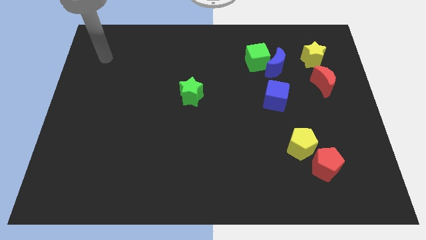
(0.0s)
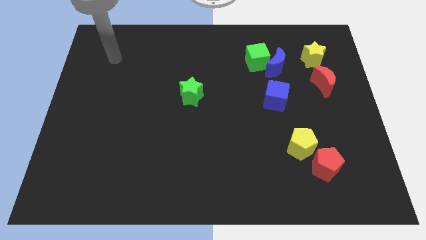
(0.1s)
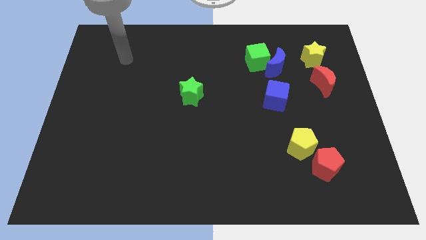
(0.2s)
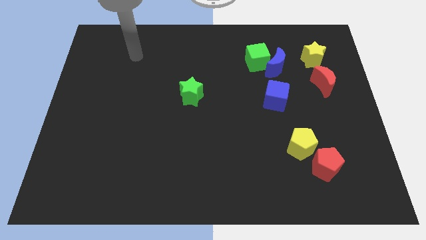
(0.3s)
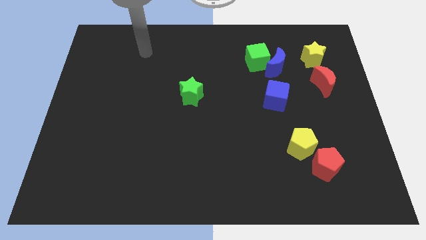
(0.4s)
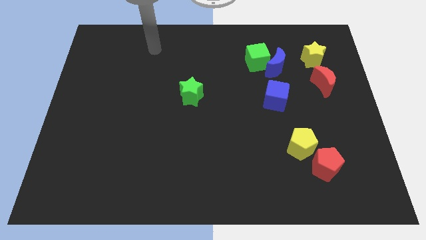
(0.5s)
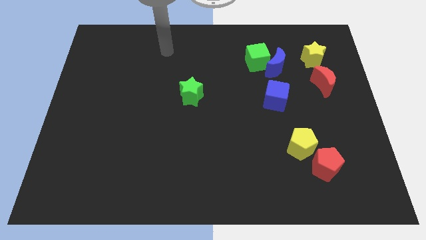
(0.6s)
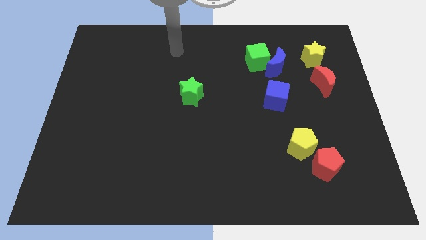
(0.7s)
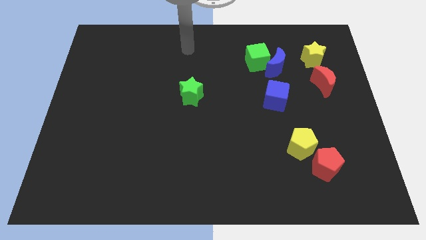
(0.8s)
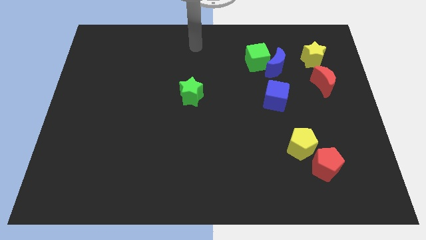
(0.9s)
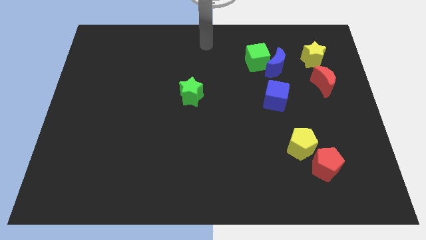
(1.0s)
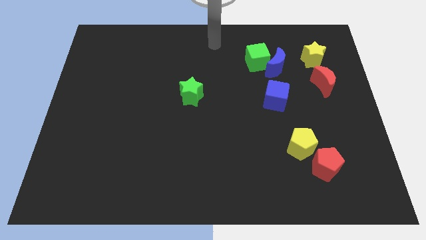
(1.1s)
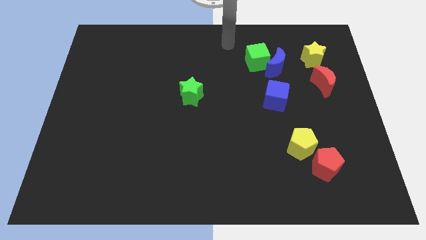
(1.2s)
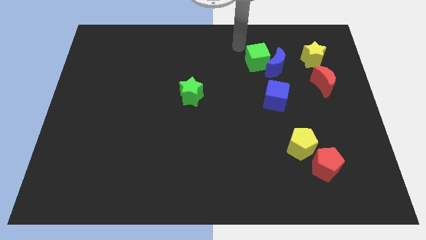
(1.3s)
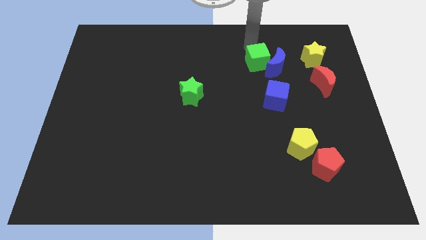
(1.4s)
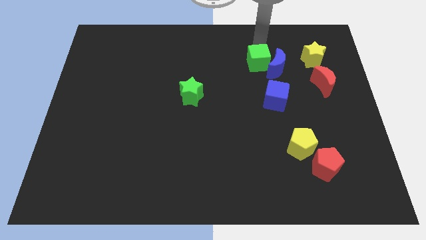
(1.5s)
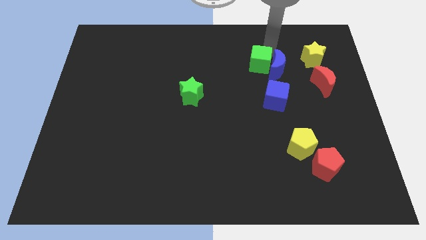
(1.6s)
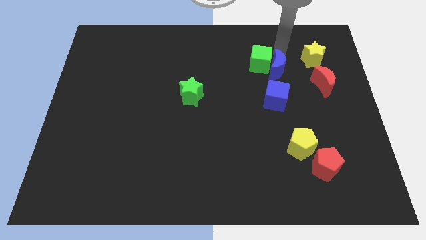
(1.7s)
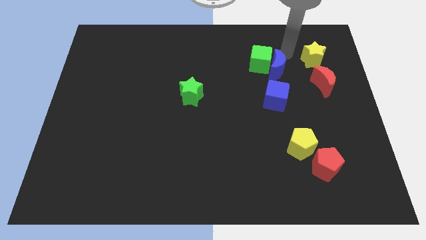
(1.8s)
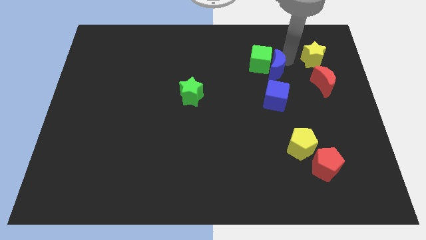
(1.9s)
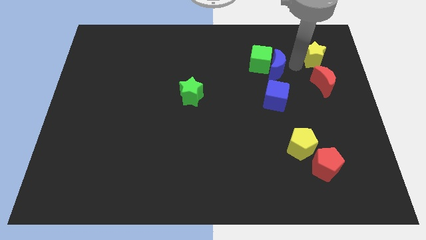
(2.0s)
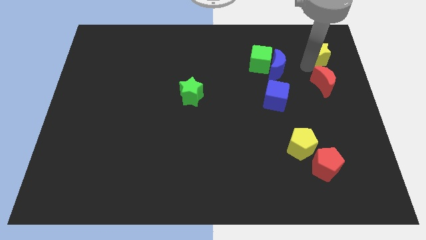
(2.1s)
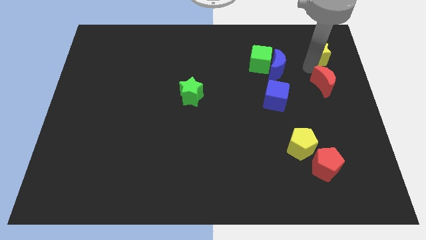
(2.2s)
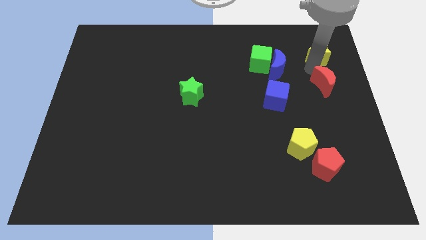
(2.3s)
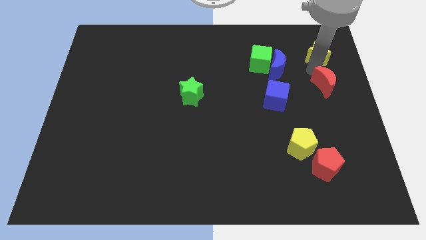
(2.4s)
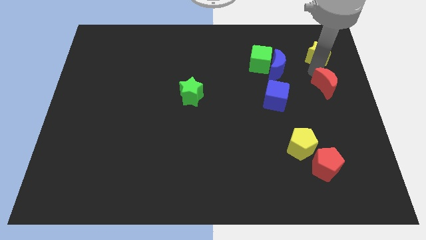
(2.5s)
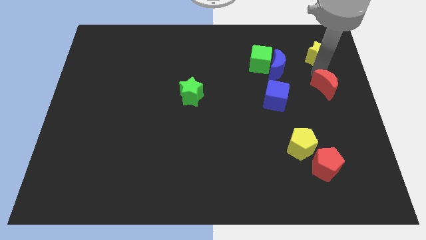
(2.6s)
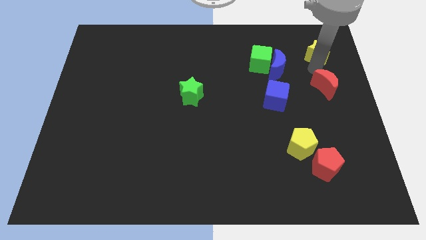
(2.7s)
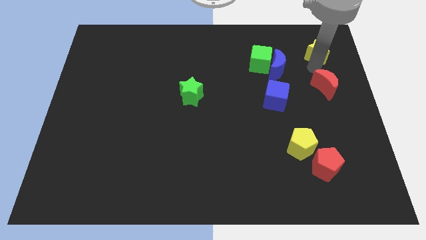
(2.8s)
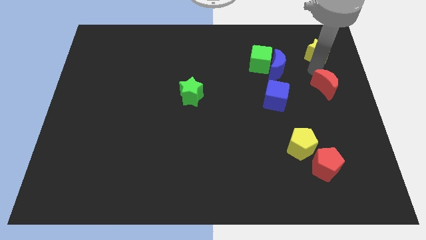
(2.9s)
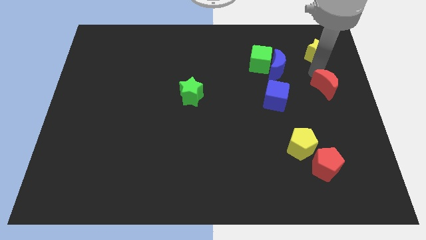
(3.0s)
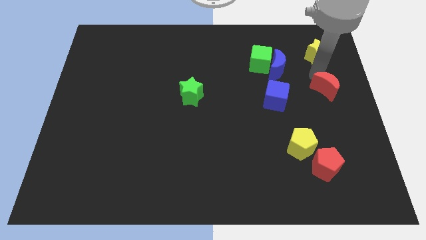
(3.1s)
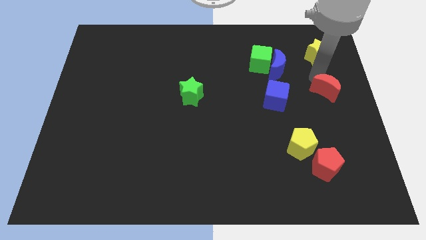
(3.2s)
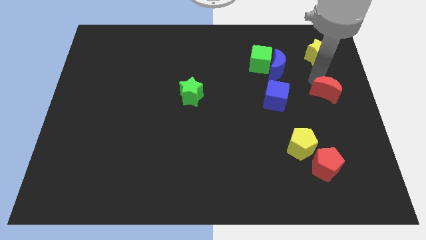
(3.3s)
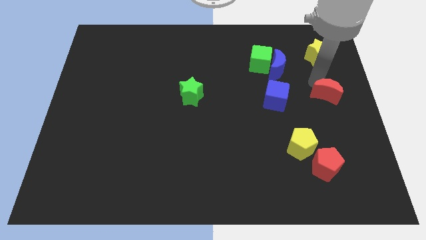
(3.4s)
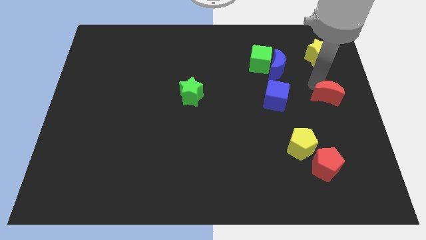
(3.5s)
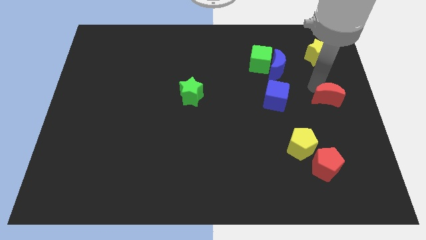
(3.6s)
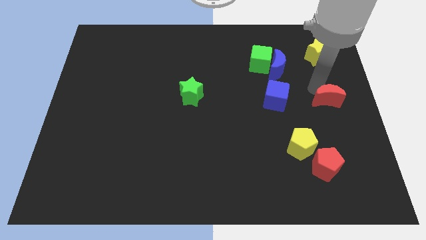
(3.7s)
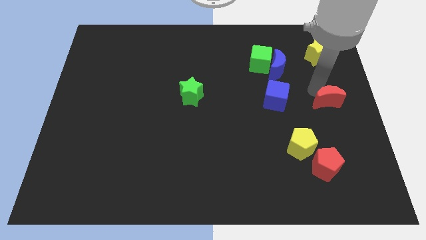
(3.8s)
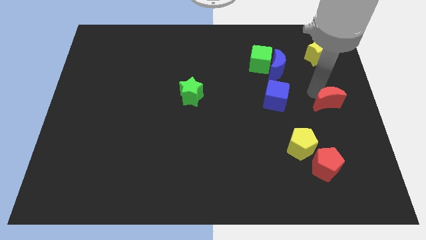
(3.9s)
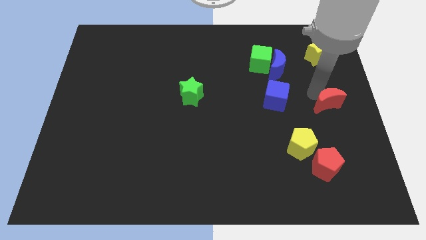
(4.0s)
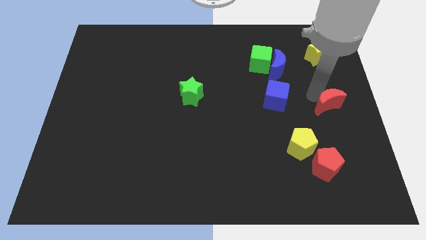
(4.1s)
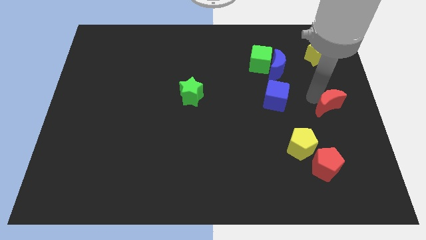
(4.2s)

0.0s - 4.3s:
slightly move the red moon down

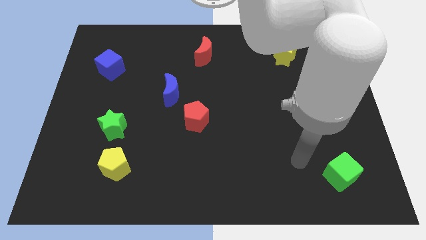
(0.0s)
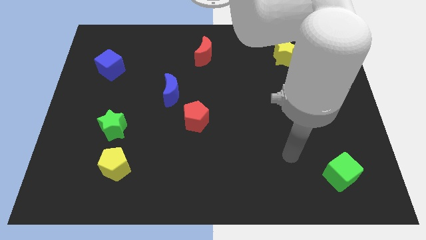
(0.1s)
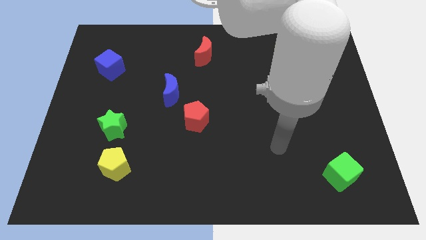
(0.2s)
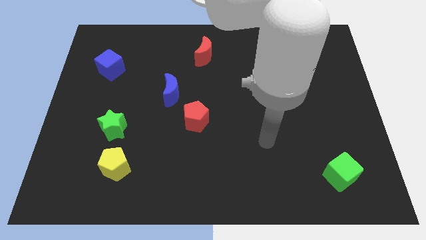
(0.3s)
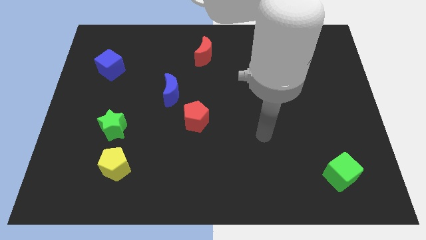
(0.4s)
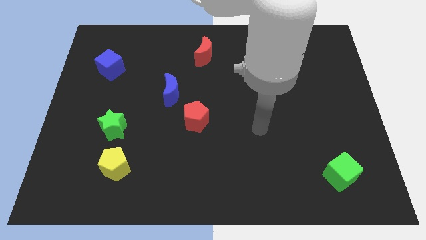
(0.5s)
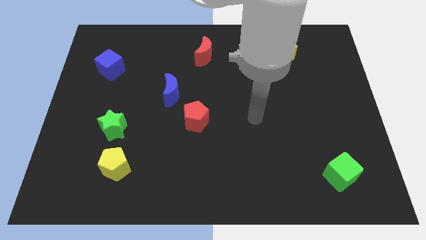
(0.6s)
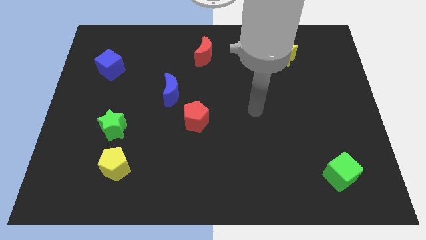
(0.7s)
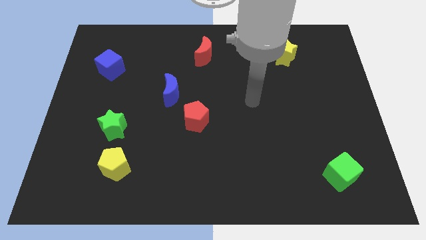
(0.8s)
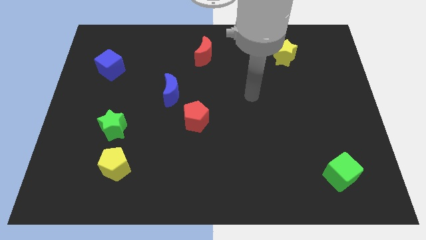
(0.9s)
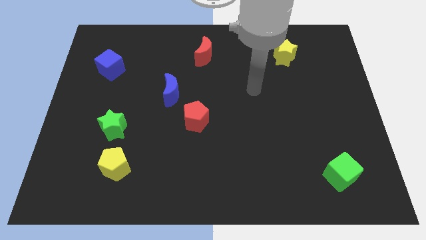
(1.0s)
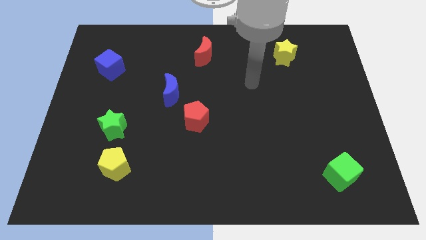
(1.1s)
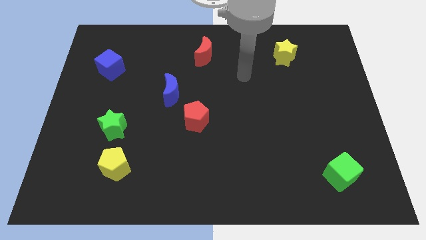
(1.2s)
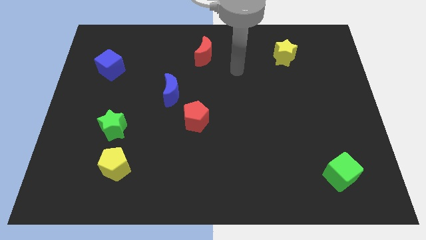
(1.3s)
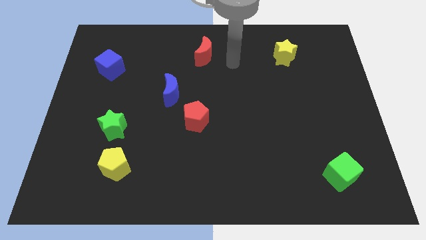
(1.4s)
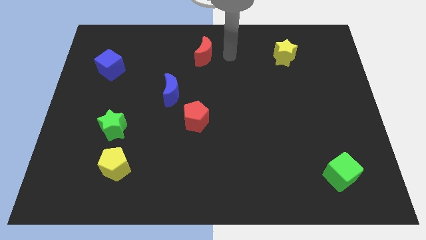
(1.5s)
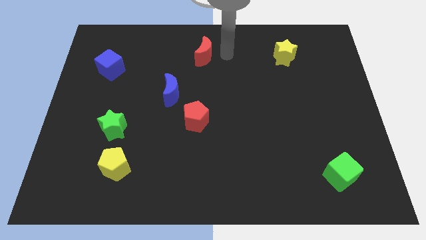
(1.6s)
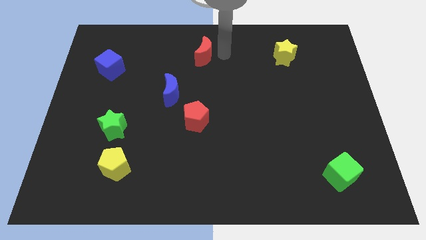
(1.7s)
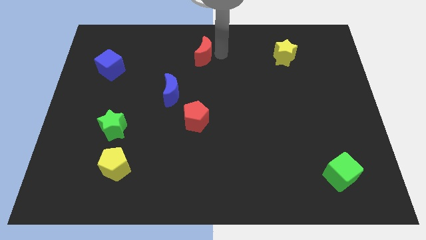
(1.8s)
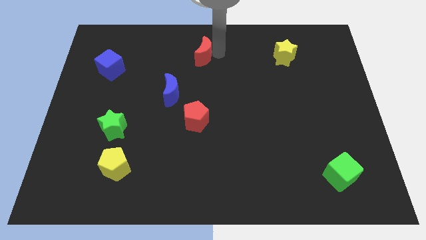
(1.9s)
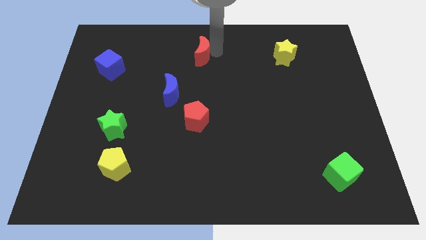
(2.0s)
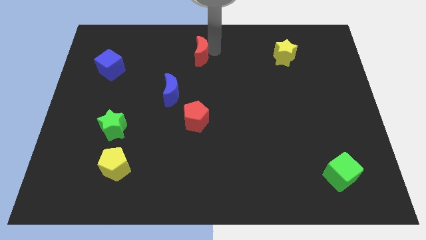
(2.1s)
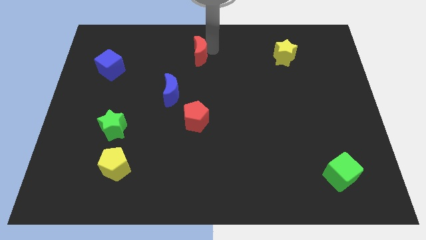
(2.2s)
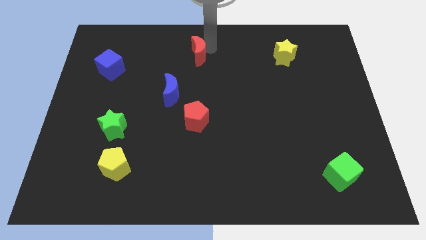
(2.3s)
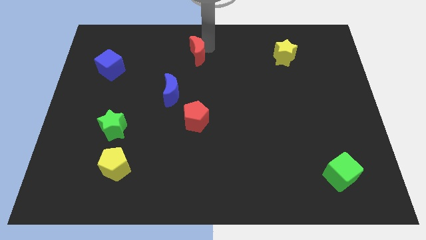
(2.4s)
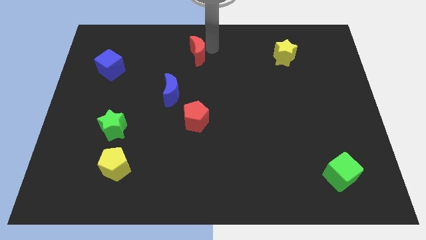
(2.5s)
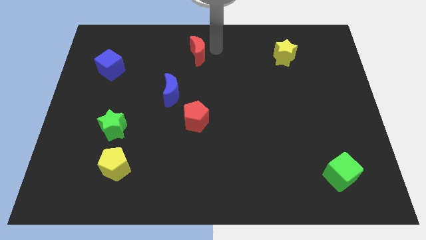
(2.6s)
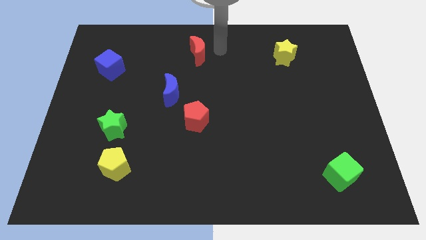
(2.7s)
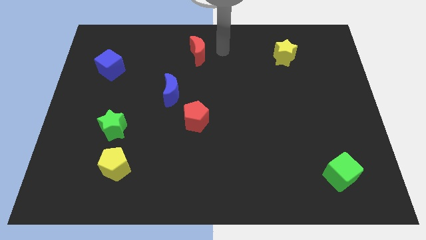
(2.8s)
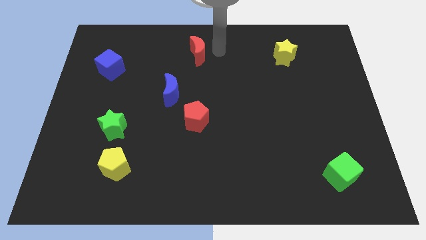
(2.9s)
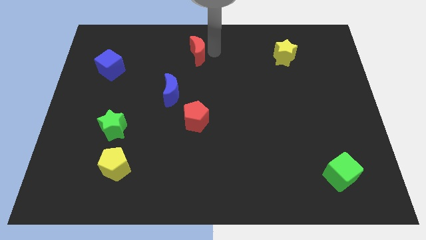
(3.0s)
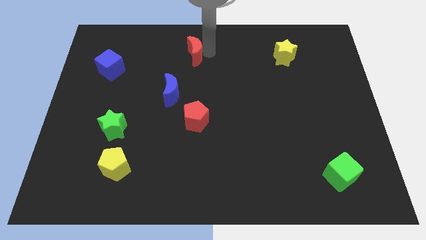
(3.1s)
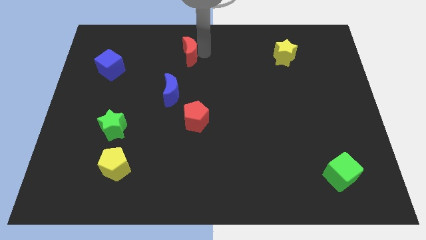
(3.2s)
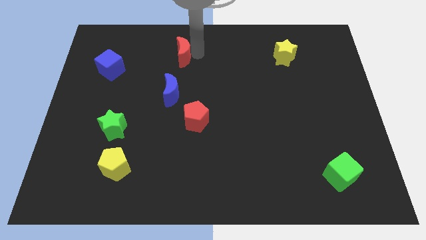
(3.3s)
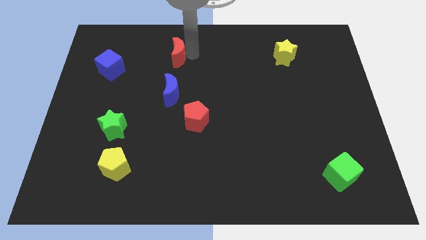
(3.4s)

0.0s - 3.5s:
push the red moon somewhat to the left

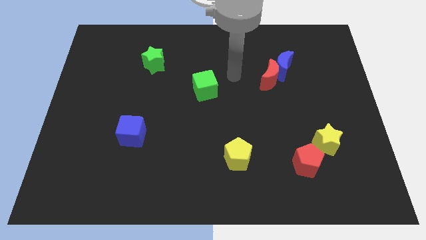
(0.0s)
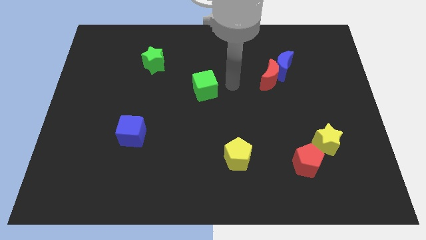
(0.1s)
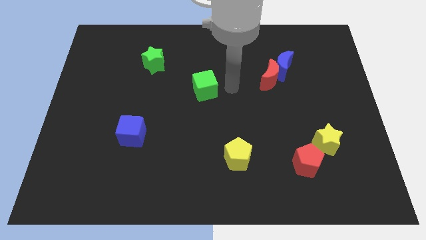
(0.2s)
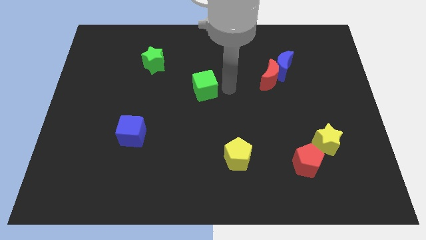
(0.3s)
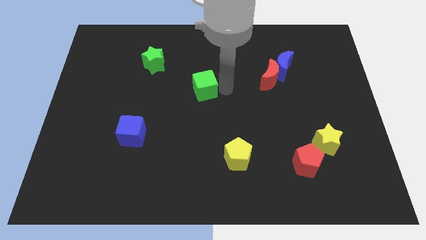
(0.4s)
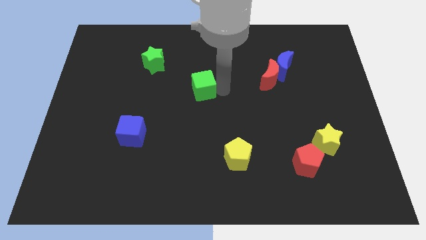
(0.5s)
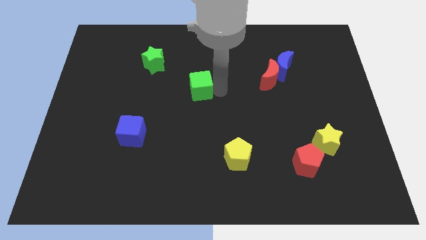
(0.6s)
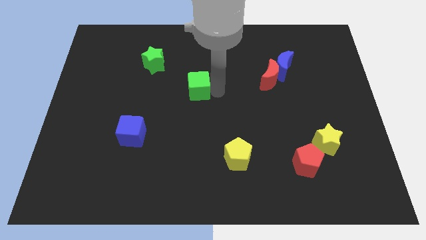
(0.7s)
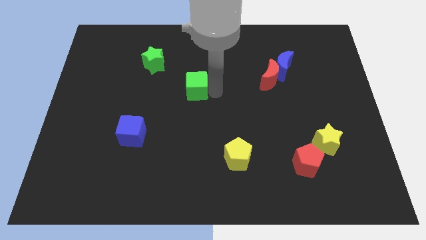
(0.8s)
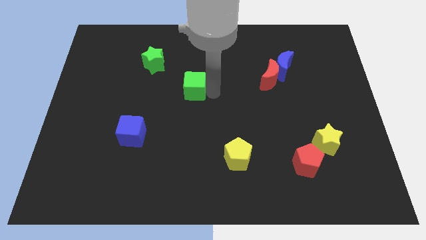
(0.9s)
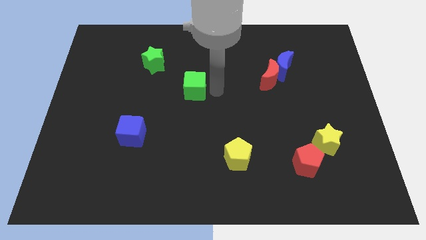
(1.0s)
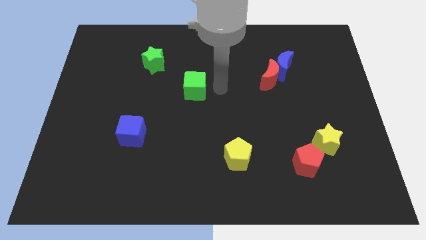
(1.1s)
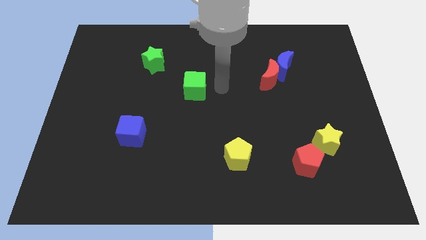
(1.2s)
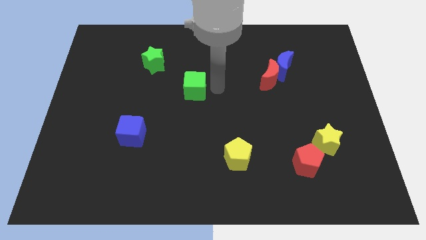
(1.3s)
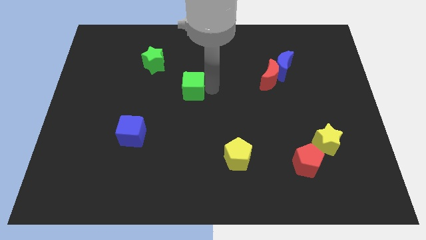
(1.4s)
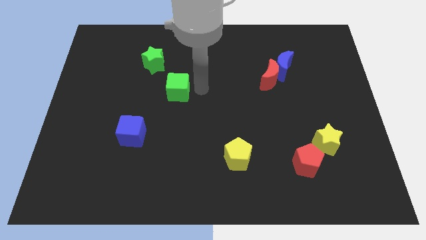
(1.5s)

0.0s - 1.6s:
move the green cube left somewhat
